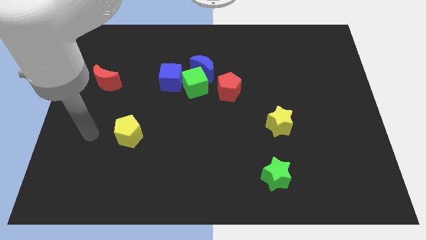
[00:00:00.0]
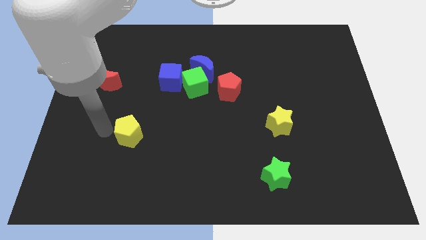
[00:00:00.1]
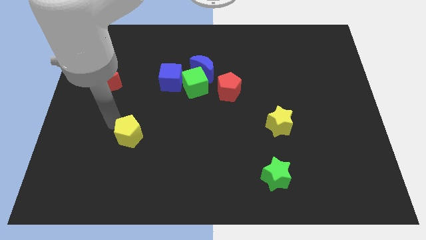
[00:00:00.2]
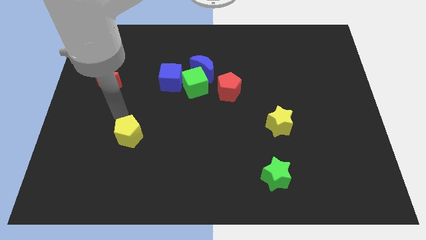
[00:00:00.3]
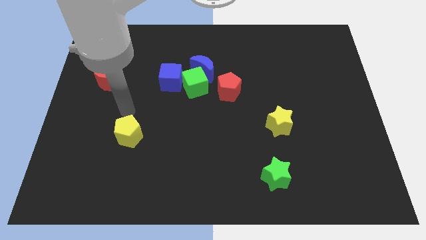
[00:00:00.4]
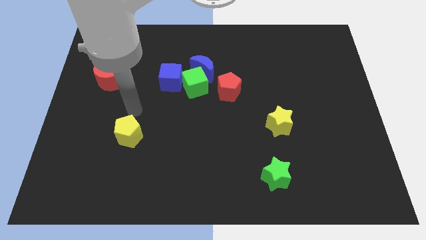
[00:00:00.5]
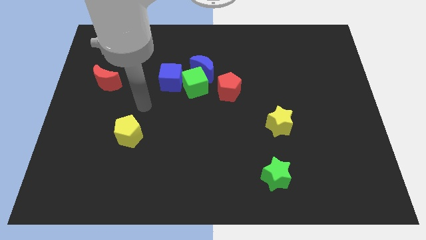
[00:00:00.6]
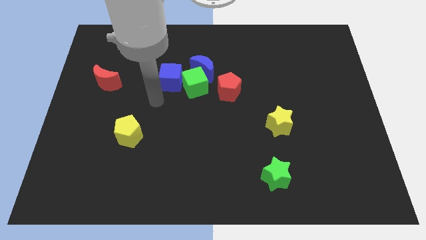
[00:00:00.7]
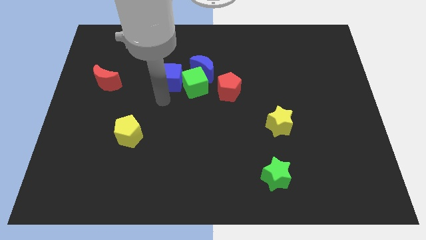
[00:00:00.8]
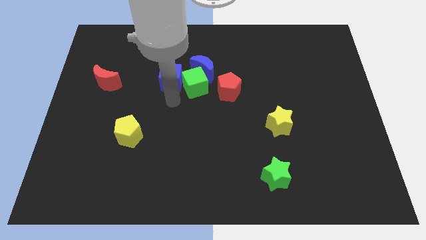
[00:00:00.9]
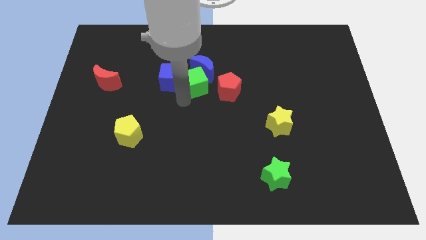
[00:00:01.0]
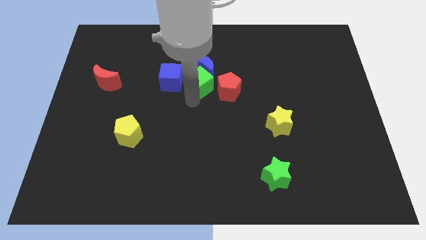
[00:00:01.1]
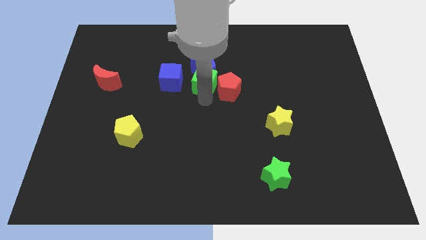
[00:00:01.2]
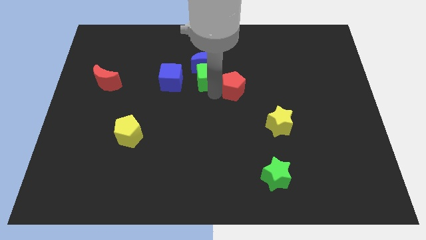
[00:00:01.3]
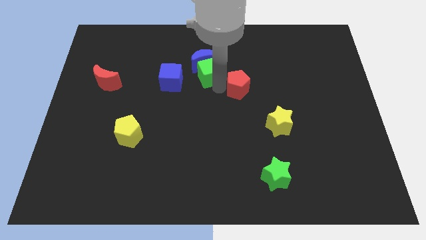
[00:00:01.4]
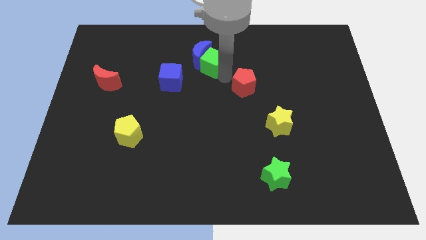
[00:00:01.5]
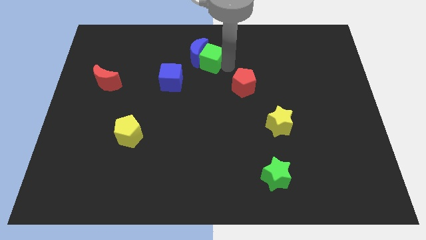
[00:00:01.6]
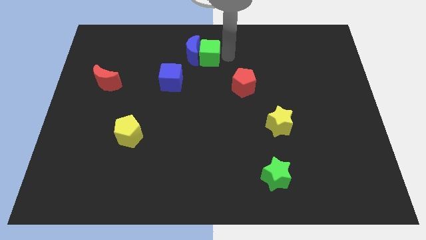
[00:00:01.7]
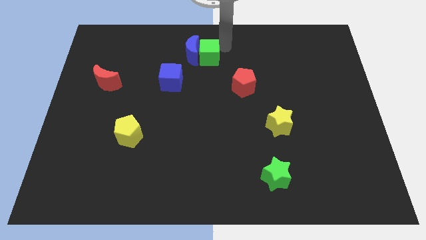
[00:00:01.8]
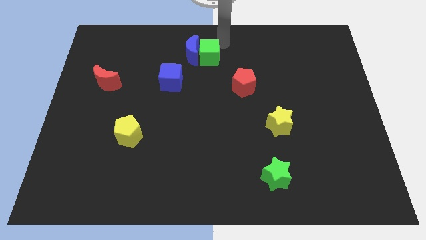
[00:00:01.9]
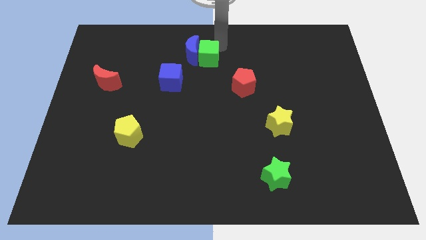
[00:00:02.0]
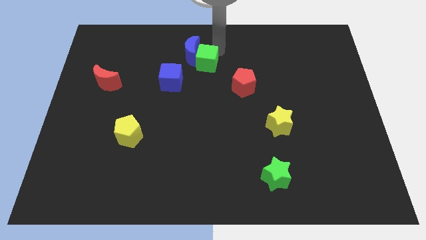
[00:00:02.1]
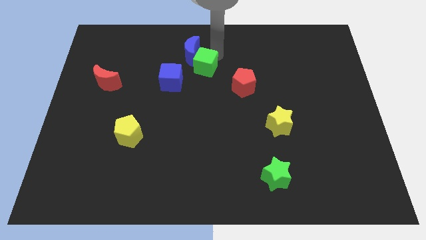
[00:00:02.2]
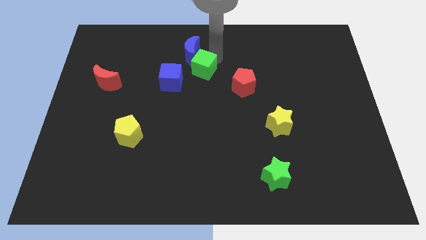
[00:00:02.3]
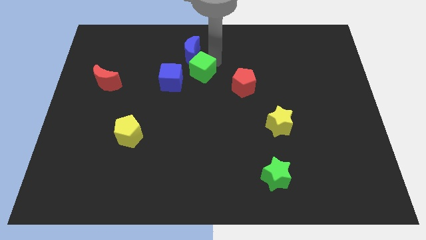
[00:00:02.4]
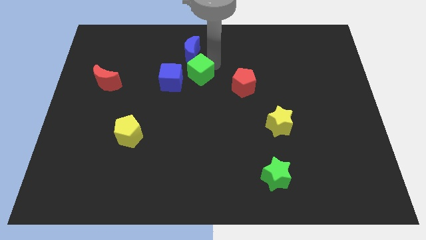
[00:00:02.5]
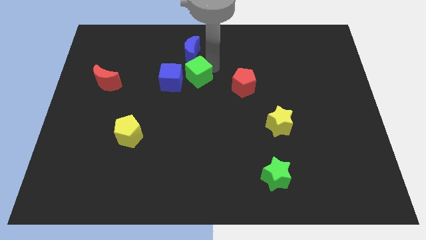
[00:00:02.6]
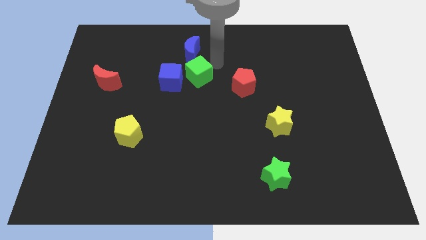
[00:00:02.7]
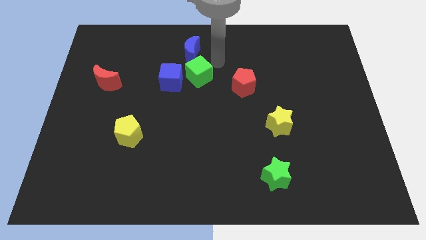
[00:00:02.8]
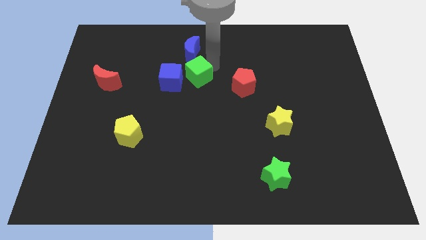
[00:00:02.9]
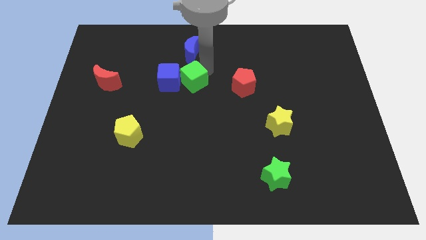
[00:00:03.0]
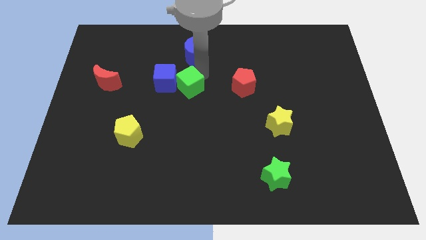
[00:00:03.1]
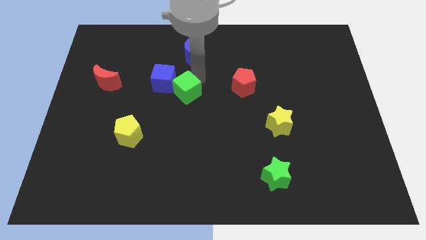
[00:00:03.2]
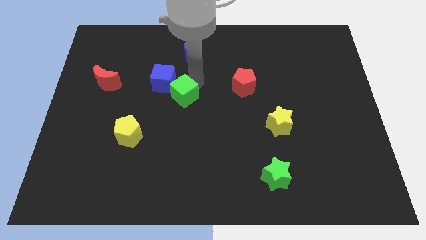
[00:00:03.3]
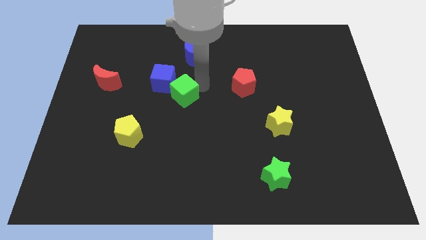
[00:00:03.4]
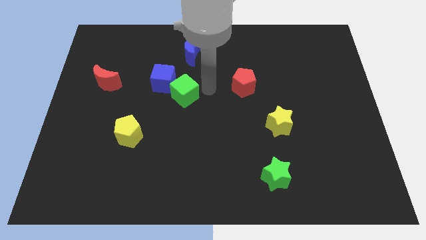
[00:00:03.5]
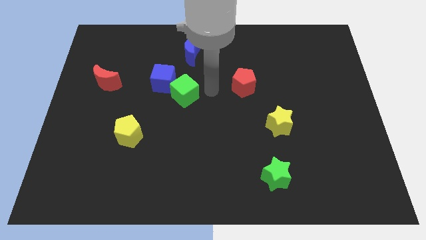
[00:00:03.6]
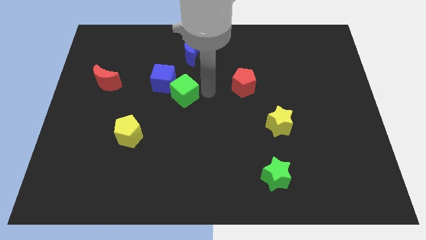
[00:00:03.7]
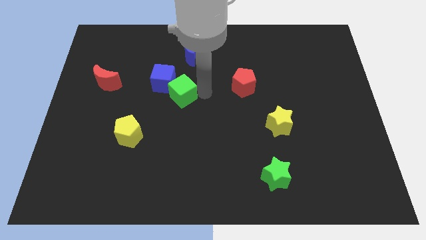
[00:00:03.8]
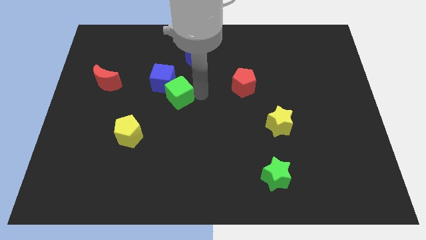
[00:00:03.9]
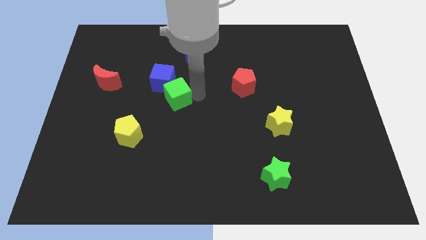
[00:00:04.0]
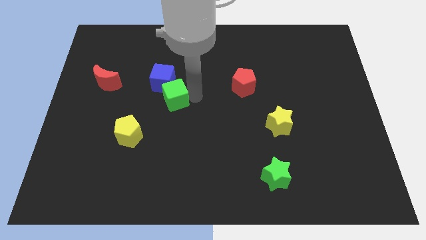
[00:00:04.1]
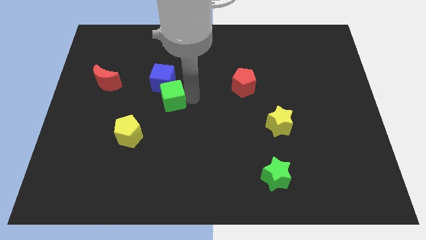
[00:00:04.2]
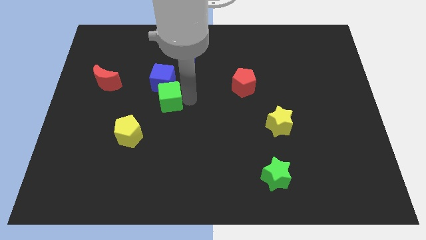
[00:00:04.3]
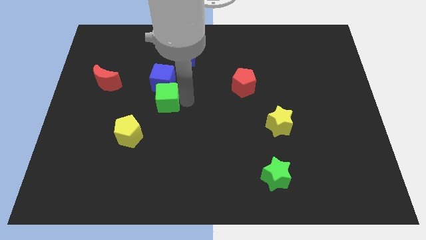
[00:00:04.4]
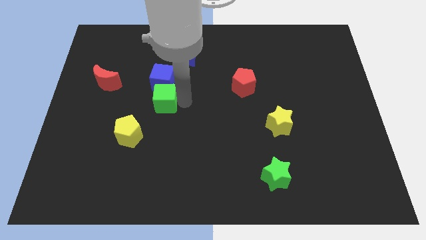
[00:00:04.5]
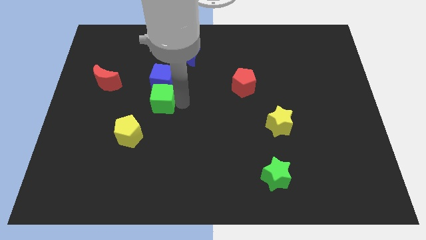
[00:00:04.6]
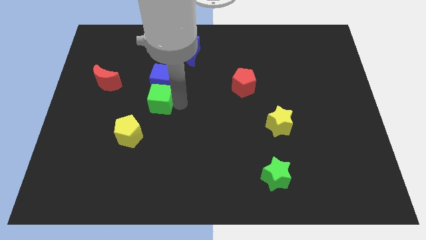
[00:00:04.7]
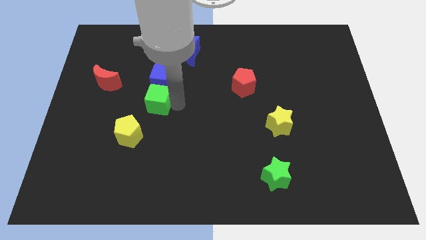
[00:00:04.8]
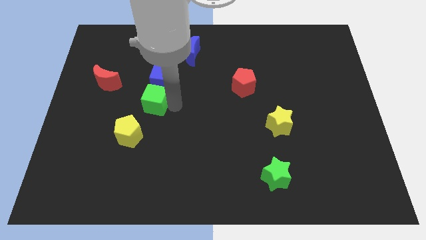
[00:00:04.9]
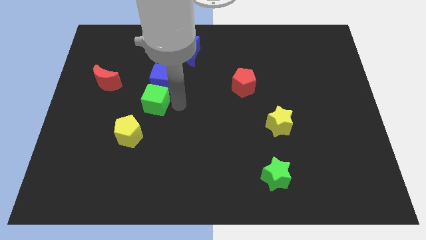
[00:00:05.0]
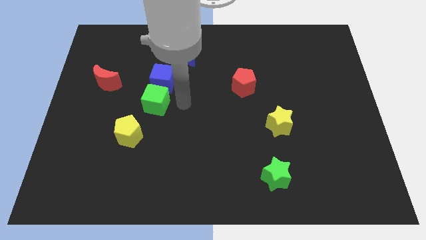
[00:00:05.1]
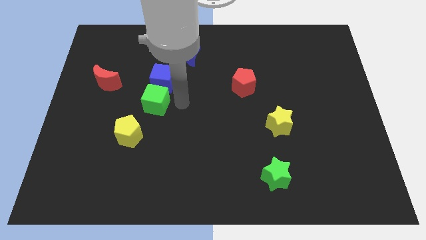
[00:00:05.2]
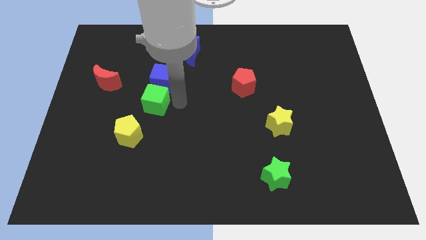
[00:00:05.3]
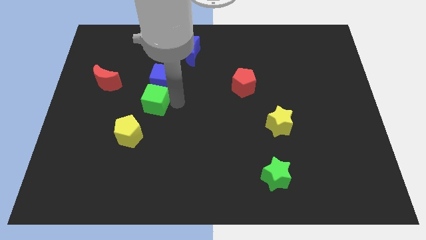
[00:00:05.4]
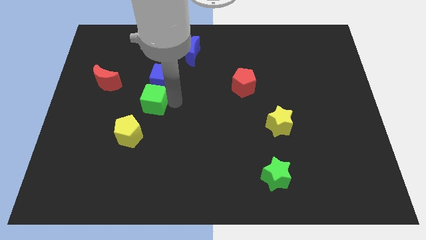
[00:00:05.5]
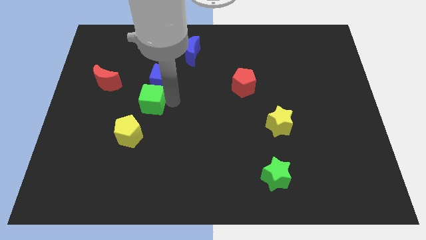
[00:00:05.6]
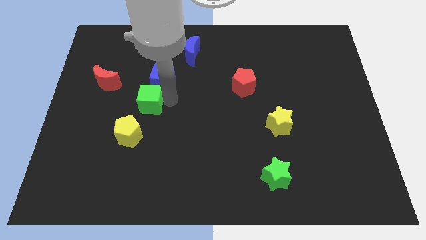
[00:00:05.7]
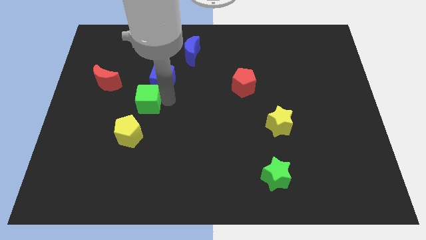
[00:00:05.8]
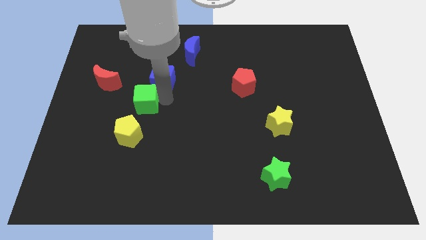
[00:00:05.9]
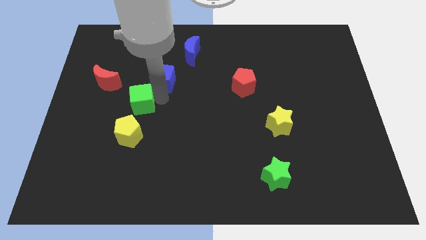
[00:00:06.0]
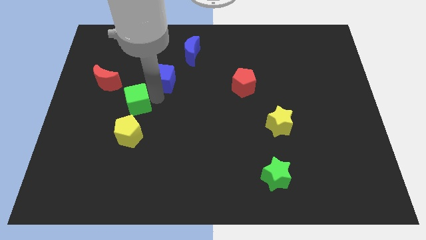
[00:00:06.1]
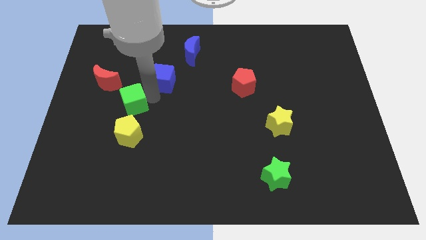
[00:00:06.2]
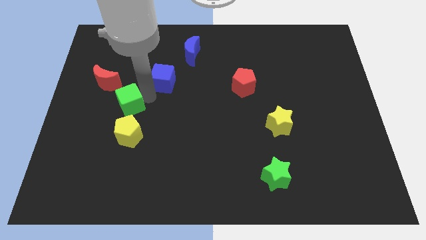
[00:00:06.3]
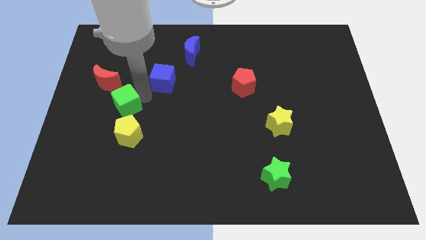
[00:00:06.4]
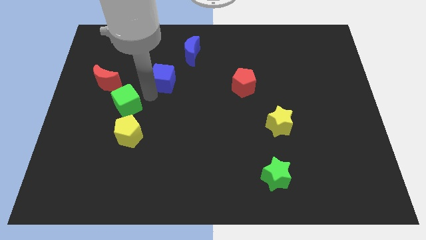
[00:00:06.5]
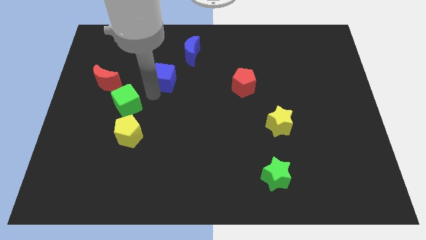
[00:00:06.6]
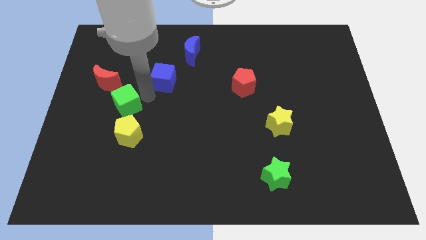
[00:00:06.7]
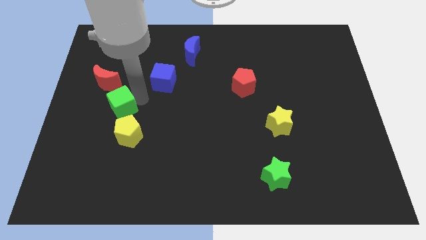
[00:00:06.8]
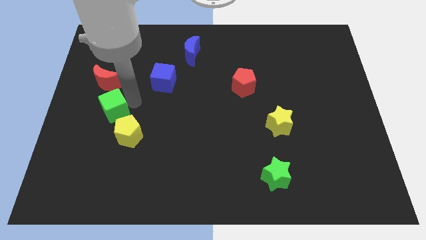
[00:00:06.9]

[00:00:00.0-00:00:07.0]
move the green cube to the bottom of the red moon

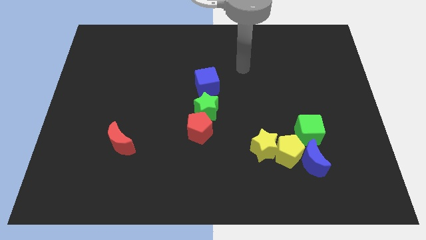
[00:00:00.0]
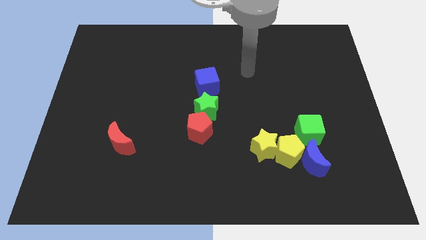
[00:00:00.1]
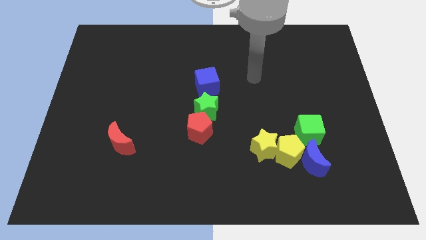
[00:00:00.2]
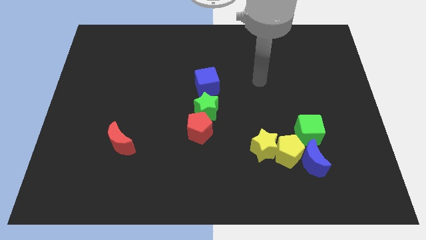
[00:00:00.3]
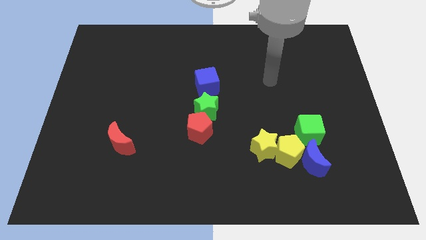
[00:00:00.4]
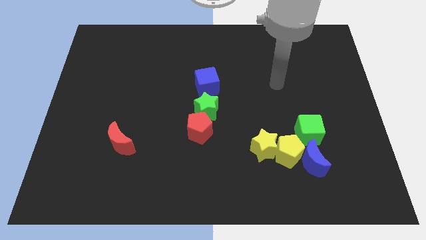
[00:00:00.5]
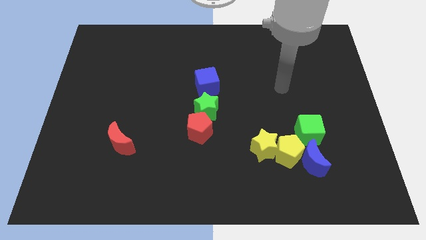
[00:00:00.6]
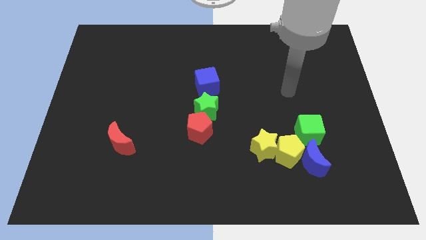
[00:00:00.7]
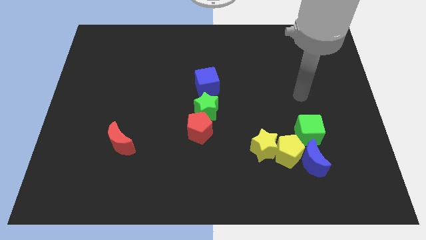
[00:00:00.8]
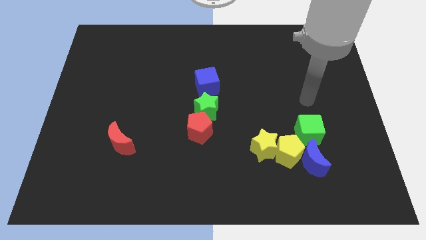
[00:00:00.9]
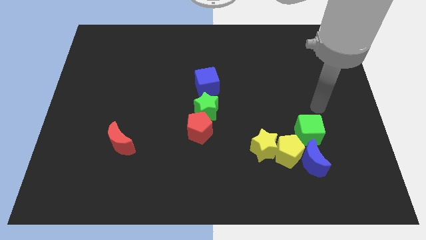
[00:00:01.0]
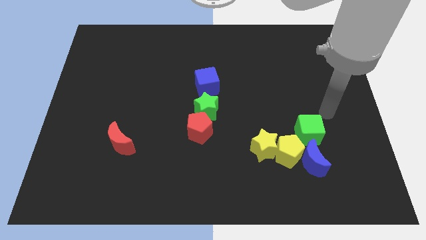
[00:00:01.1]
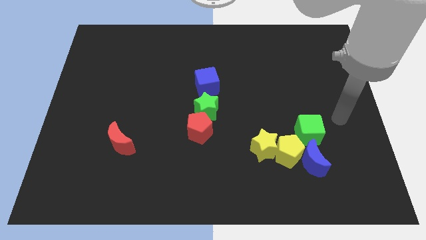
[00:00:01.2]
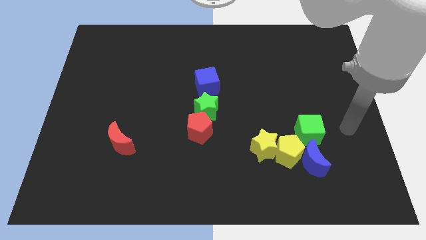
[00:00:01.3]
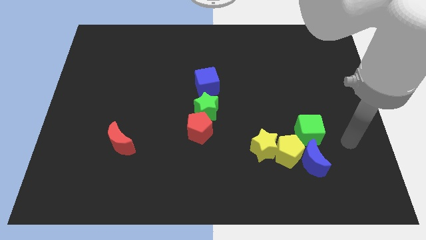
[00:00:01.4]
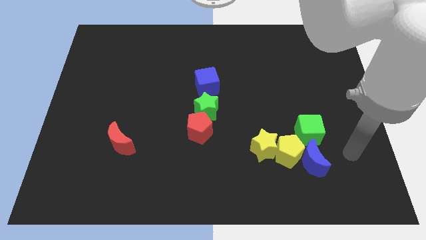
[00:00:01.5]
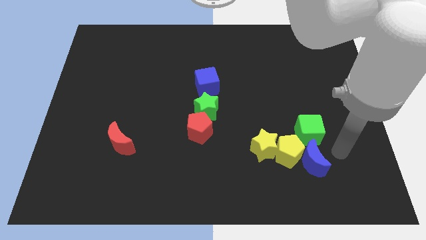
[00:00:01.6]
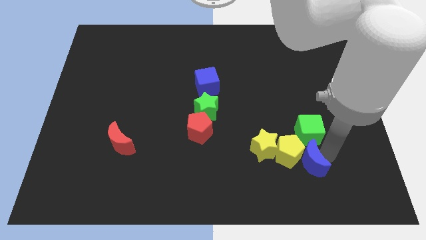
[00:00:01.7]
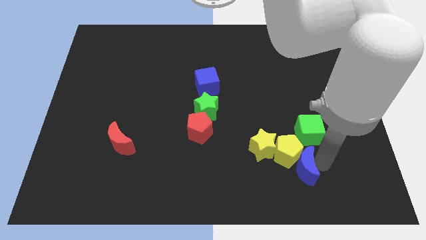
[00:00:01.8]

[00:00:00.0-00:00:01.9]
move the yellow pentagon to the left of the green cube
